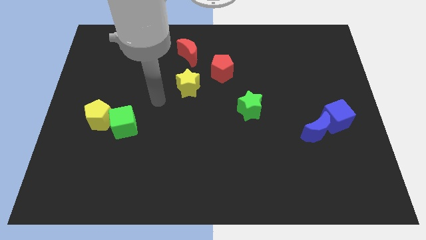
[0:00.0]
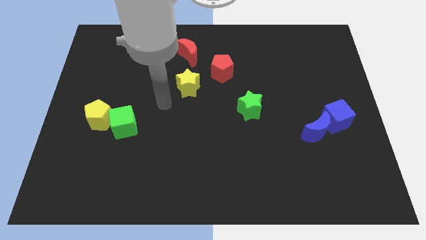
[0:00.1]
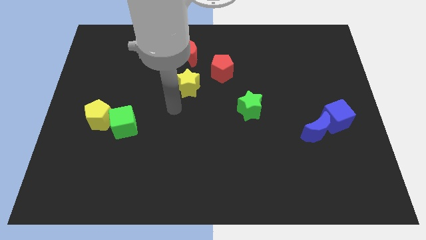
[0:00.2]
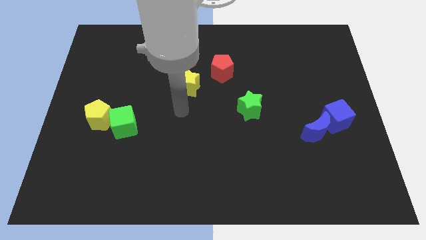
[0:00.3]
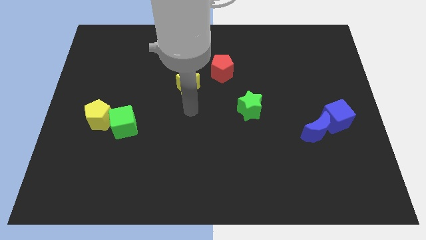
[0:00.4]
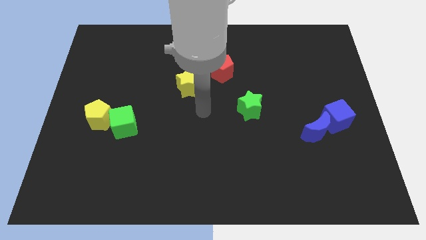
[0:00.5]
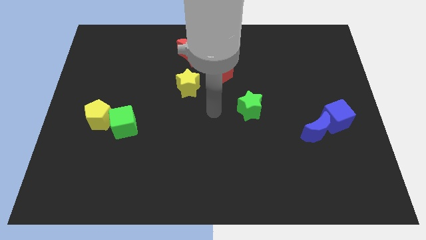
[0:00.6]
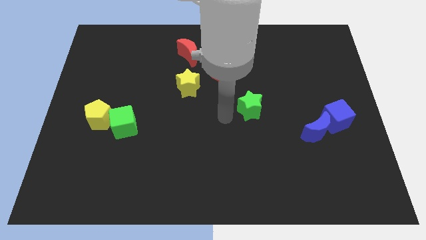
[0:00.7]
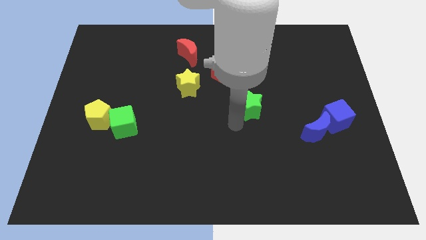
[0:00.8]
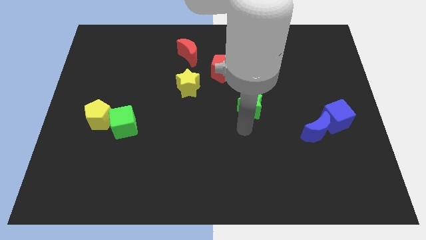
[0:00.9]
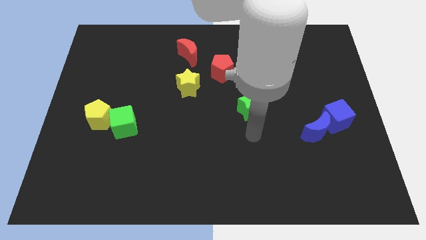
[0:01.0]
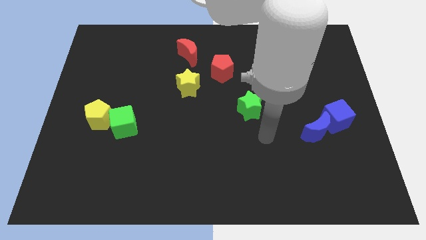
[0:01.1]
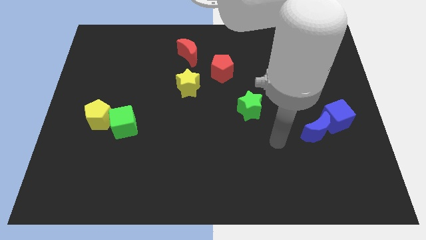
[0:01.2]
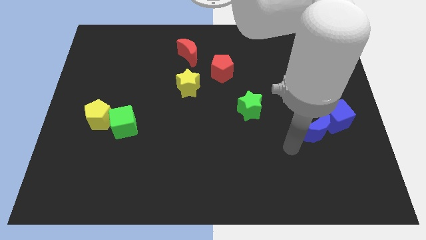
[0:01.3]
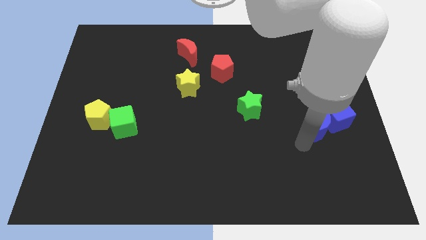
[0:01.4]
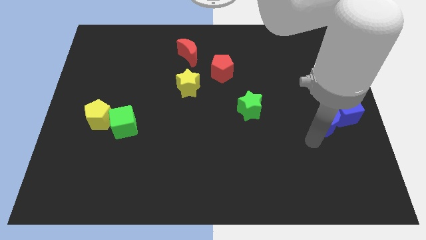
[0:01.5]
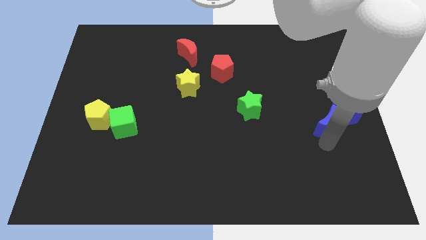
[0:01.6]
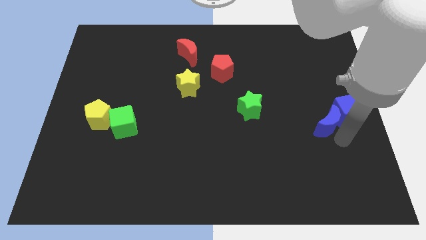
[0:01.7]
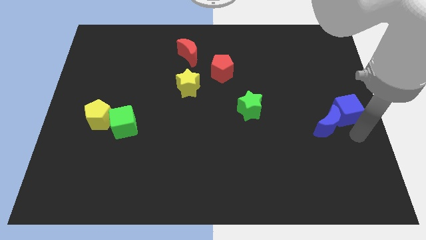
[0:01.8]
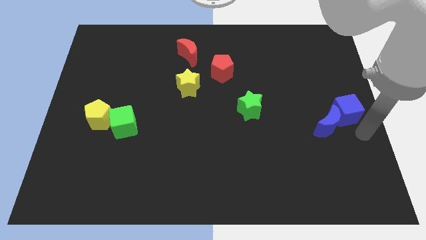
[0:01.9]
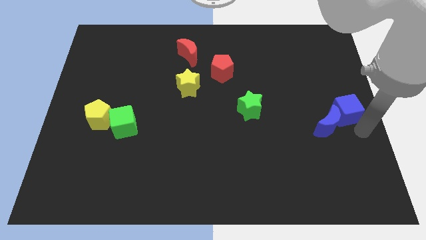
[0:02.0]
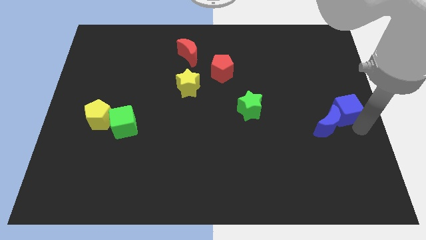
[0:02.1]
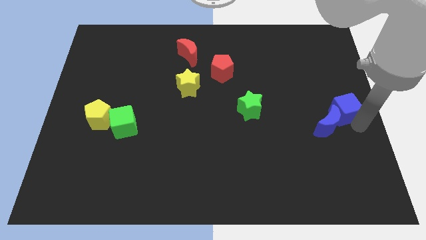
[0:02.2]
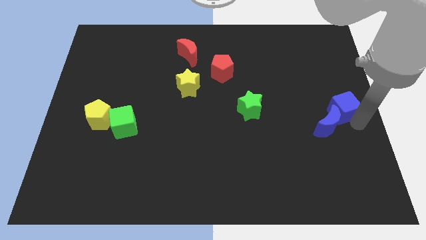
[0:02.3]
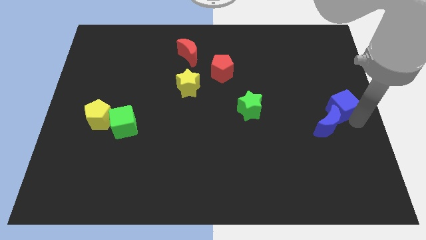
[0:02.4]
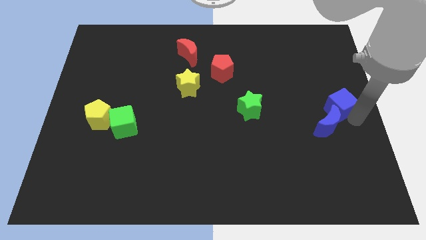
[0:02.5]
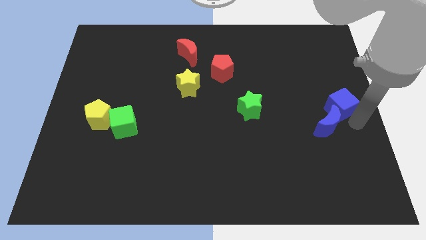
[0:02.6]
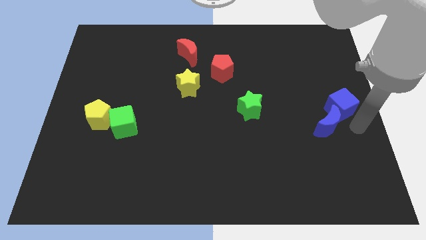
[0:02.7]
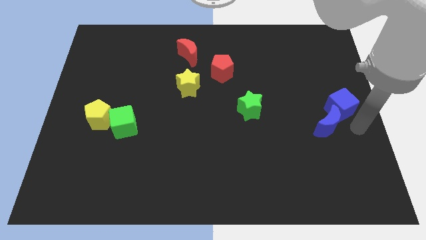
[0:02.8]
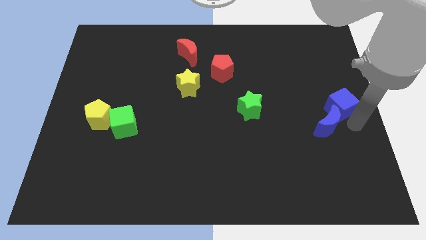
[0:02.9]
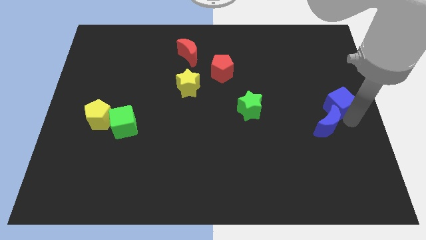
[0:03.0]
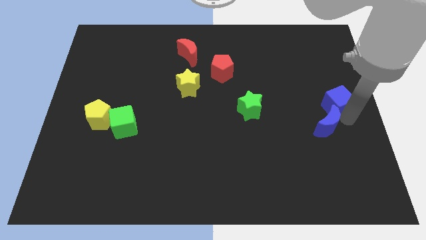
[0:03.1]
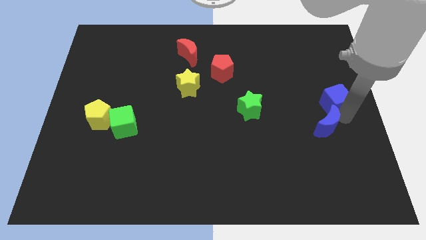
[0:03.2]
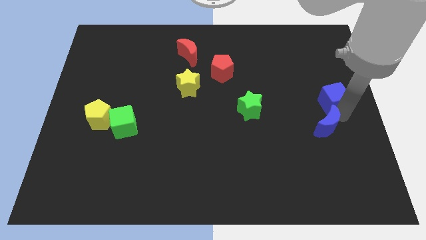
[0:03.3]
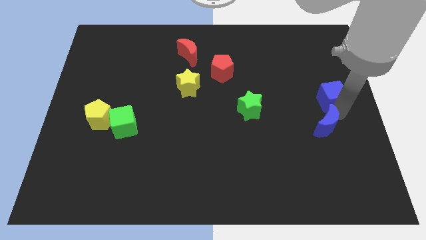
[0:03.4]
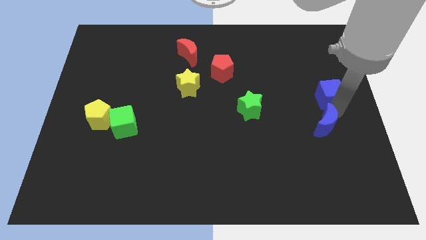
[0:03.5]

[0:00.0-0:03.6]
move the blue cube up slightly

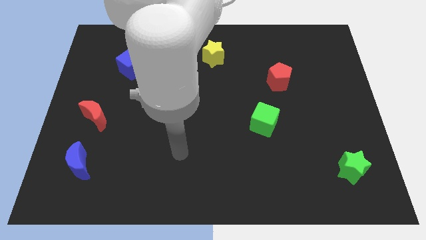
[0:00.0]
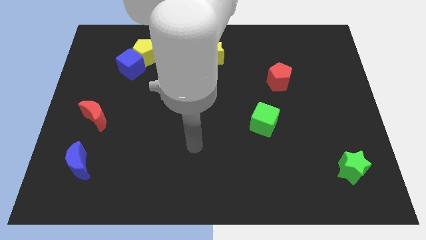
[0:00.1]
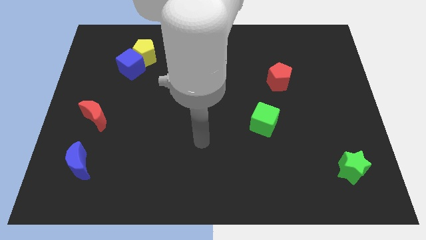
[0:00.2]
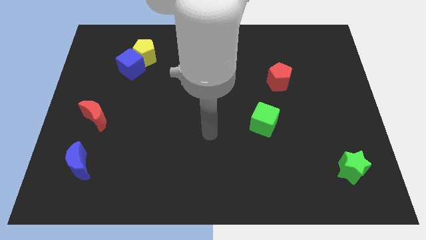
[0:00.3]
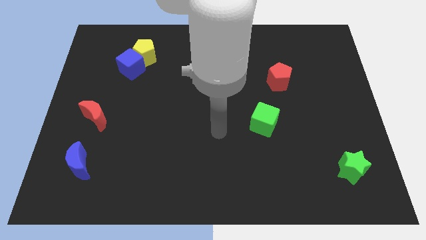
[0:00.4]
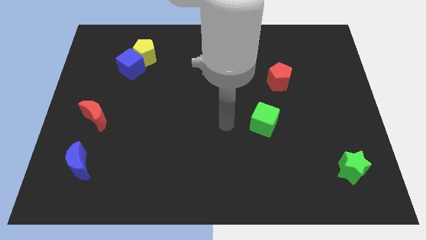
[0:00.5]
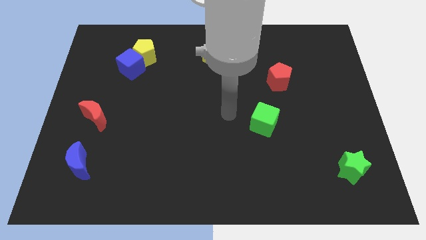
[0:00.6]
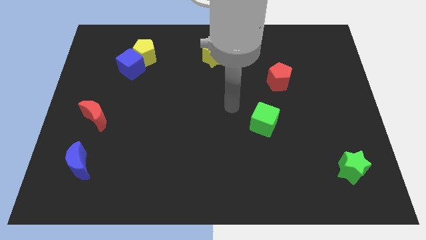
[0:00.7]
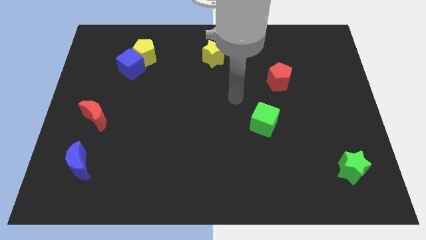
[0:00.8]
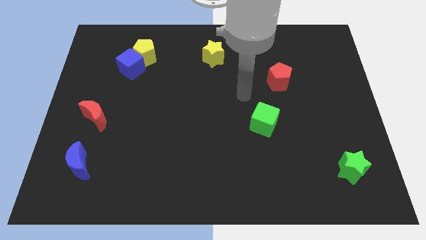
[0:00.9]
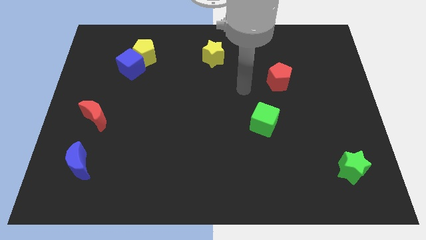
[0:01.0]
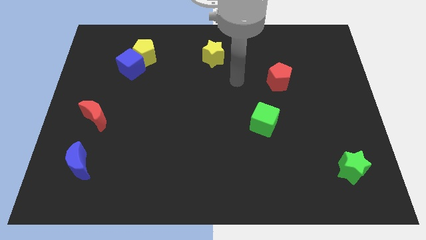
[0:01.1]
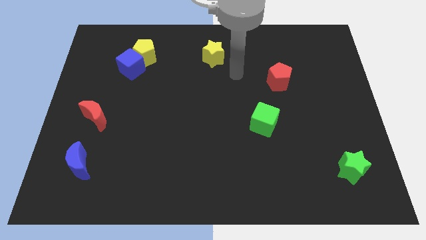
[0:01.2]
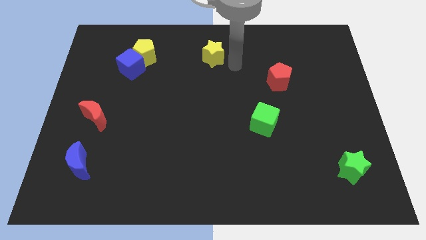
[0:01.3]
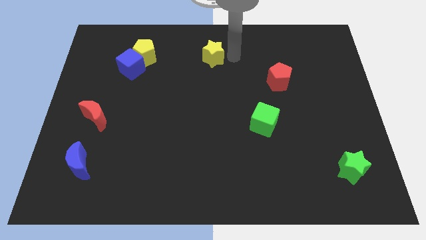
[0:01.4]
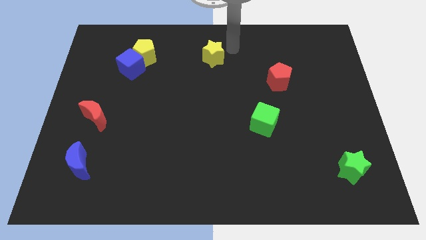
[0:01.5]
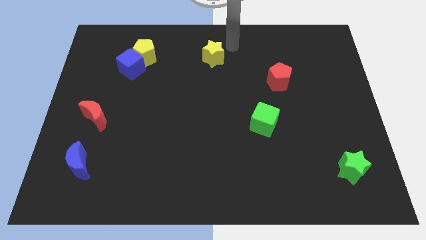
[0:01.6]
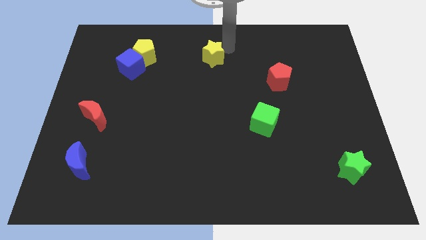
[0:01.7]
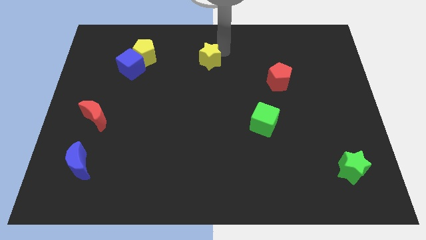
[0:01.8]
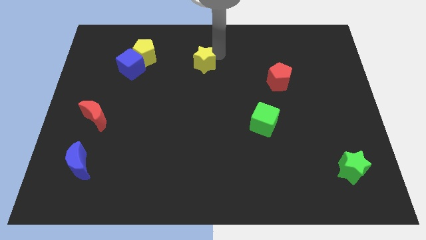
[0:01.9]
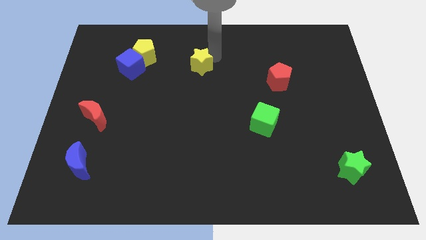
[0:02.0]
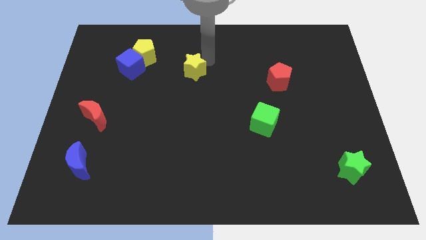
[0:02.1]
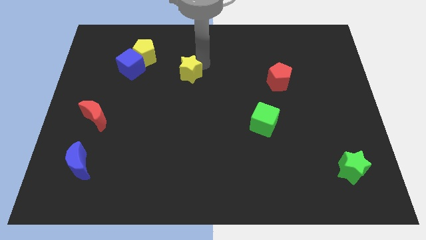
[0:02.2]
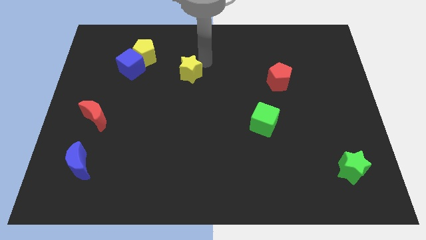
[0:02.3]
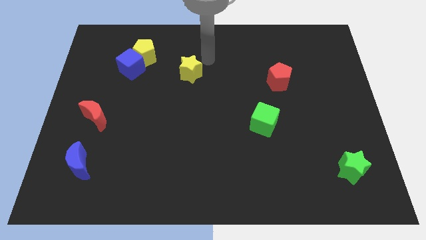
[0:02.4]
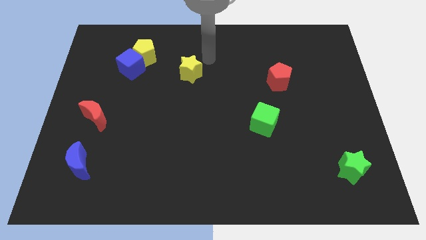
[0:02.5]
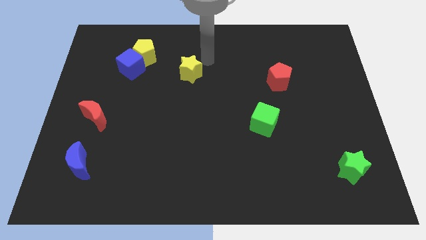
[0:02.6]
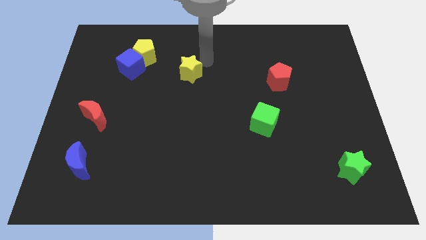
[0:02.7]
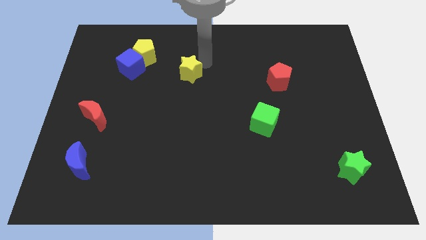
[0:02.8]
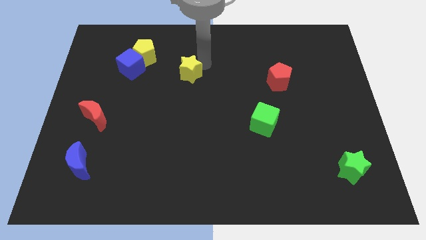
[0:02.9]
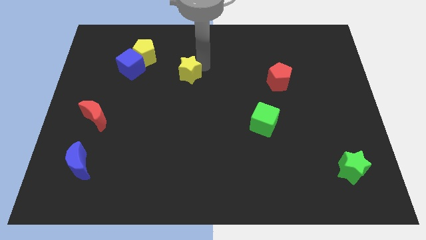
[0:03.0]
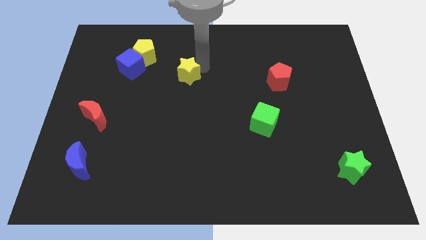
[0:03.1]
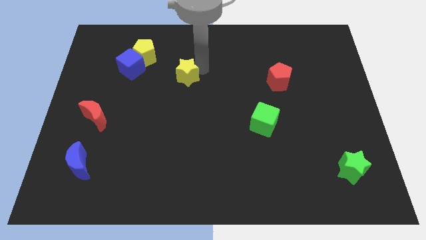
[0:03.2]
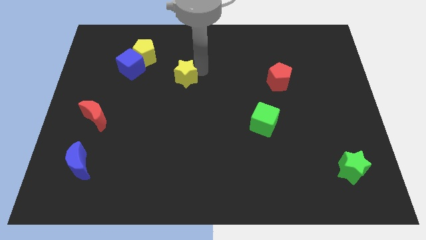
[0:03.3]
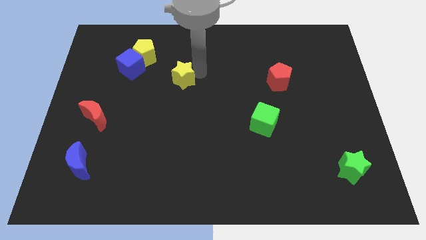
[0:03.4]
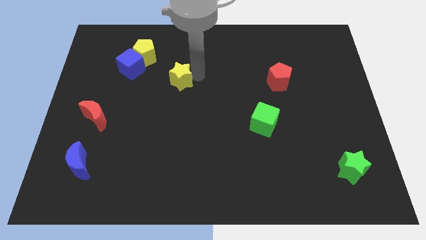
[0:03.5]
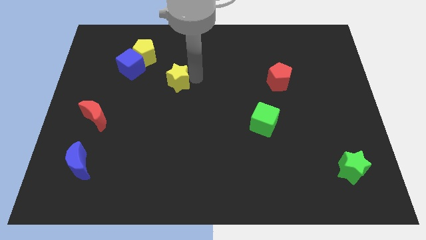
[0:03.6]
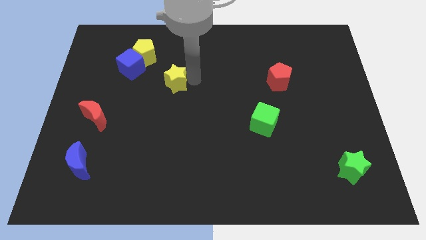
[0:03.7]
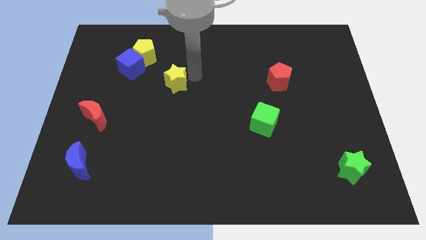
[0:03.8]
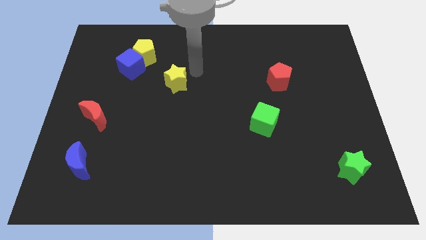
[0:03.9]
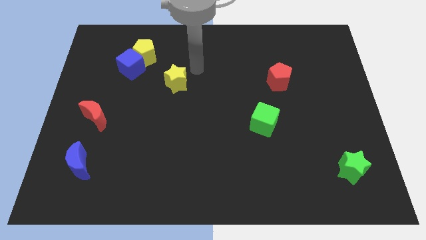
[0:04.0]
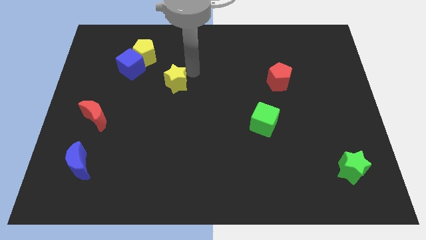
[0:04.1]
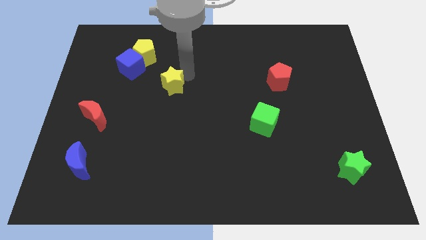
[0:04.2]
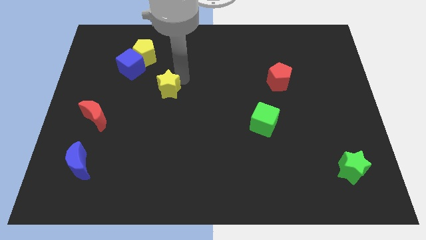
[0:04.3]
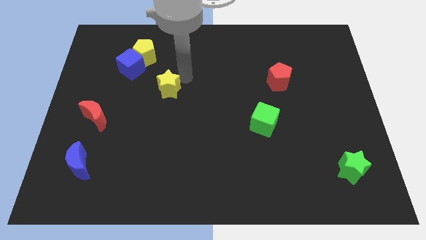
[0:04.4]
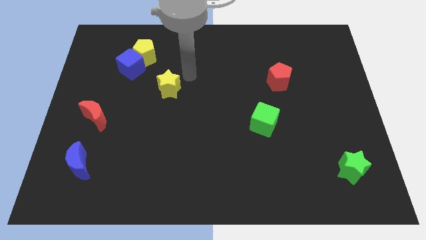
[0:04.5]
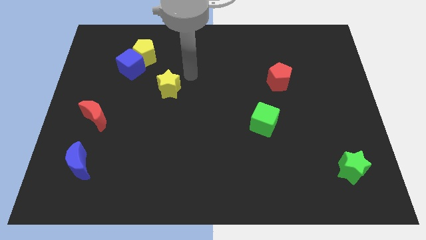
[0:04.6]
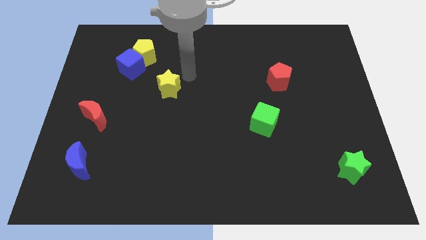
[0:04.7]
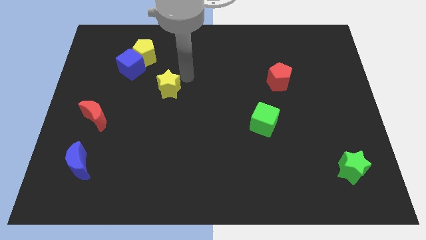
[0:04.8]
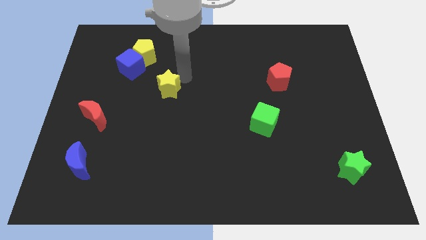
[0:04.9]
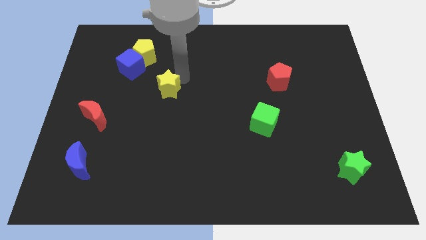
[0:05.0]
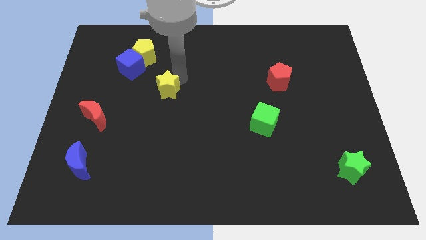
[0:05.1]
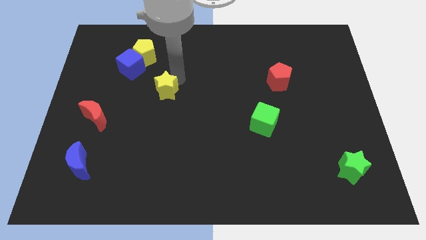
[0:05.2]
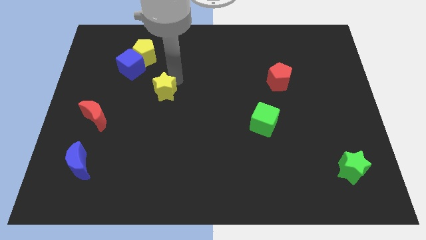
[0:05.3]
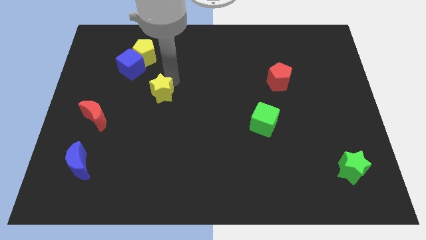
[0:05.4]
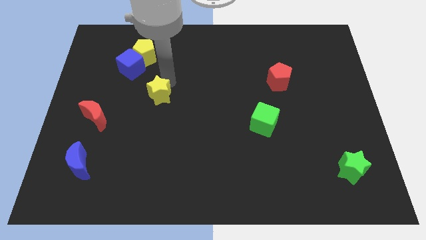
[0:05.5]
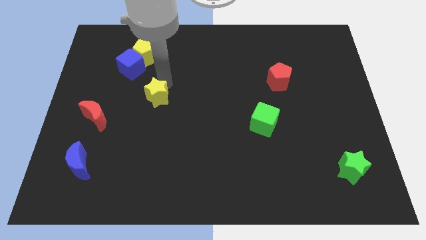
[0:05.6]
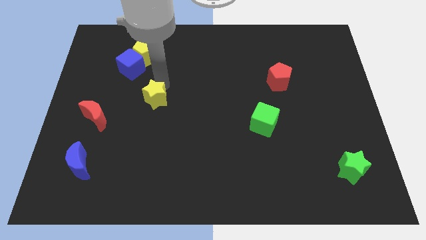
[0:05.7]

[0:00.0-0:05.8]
slide the yellow star diagonally downwards and to the left
